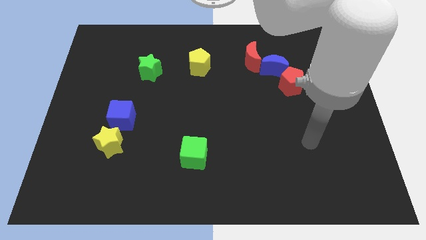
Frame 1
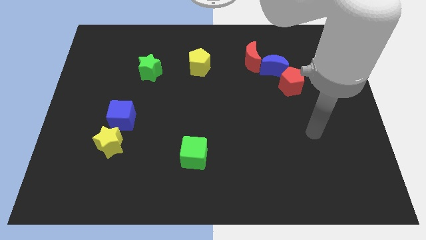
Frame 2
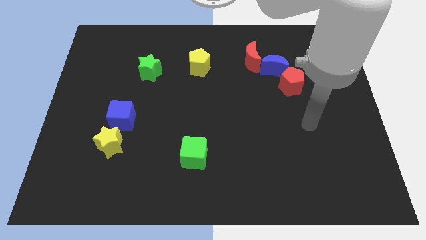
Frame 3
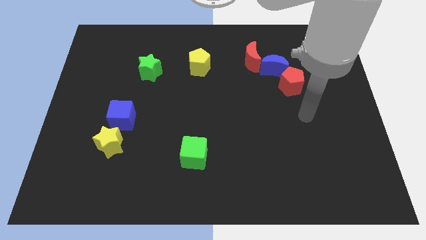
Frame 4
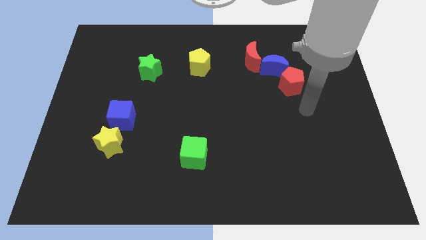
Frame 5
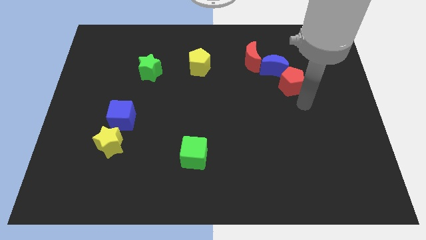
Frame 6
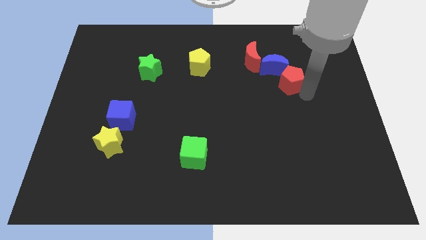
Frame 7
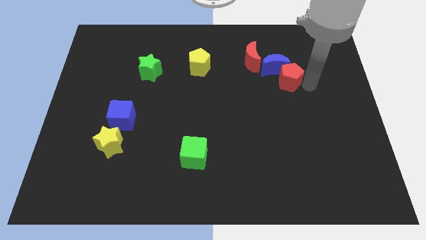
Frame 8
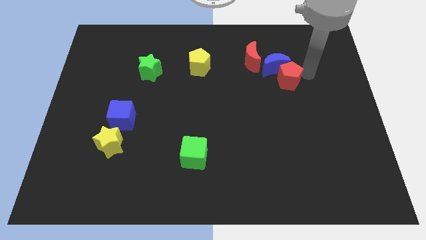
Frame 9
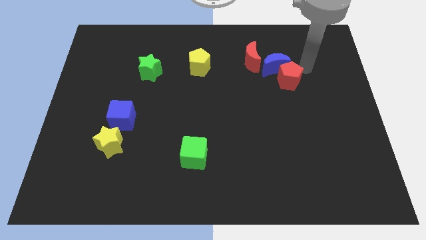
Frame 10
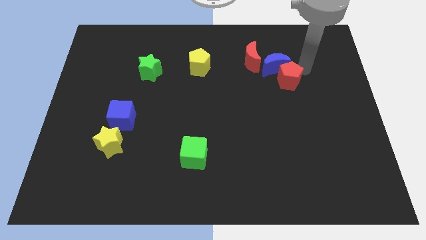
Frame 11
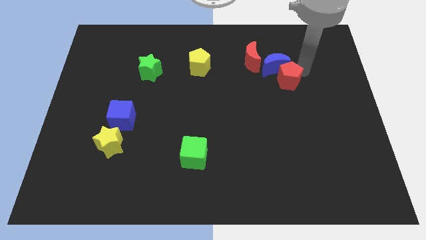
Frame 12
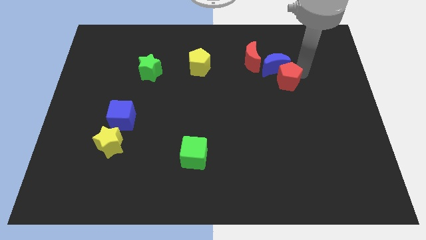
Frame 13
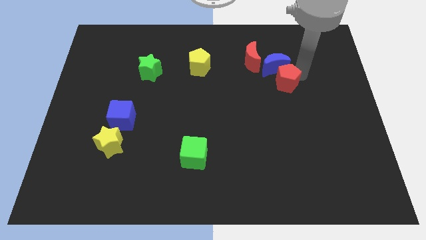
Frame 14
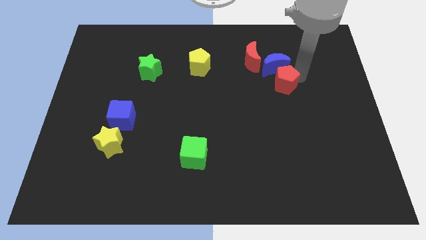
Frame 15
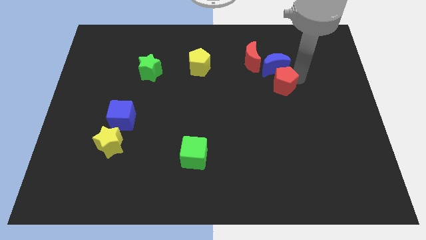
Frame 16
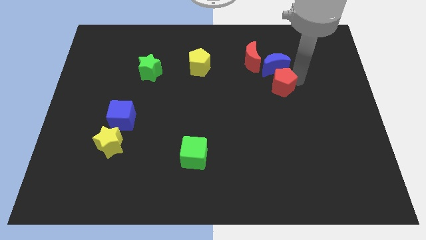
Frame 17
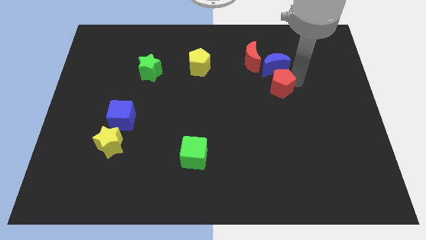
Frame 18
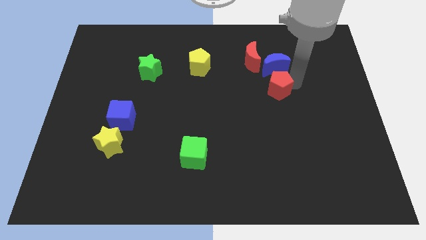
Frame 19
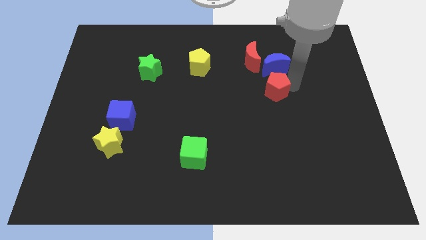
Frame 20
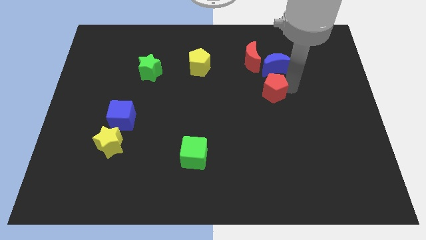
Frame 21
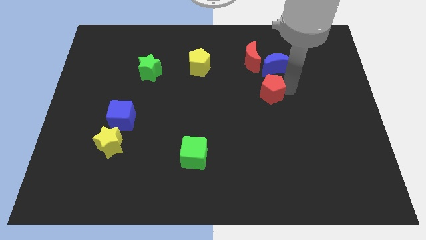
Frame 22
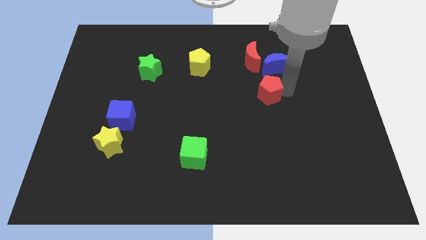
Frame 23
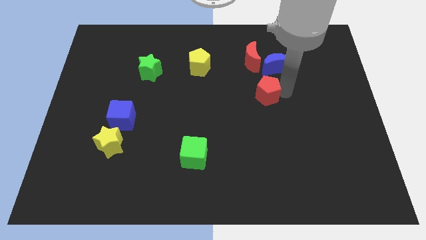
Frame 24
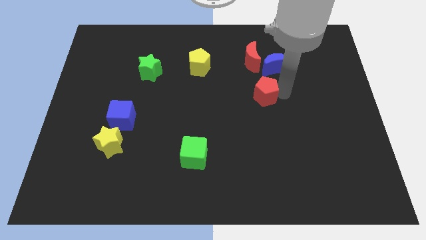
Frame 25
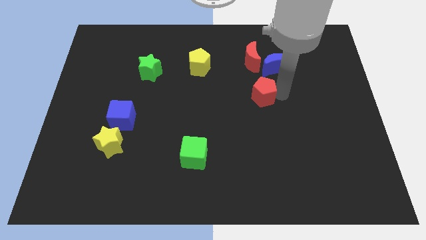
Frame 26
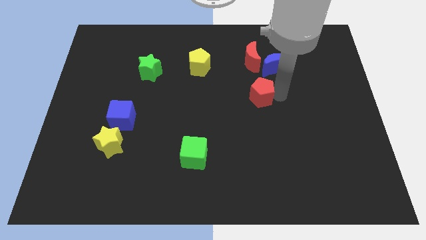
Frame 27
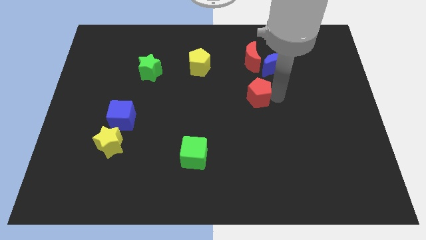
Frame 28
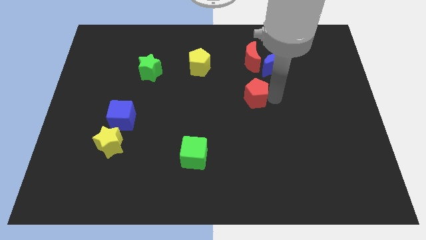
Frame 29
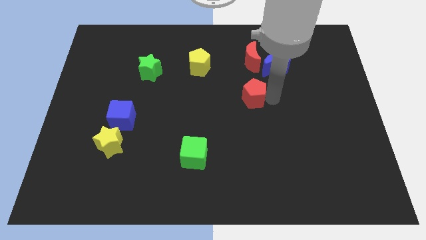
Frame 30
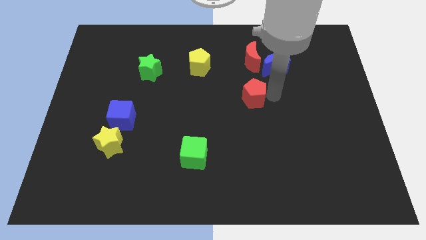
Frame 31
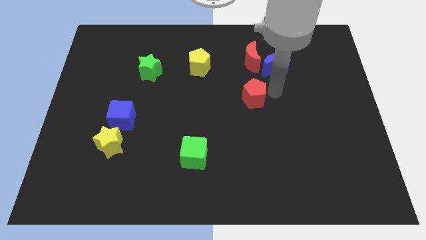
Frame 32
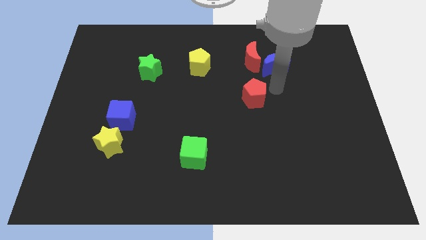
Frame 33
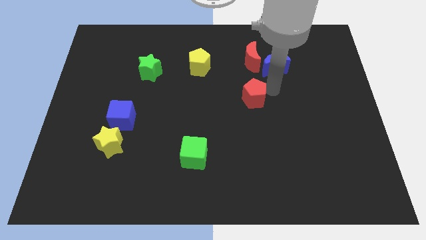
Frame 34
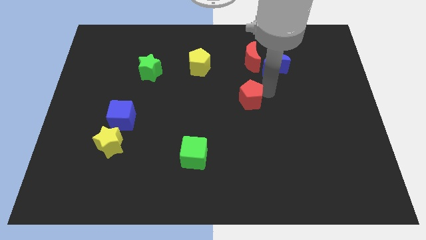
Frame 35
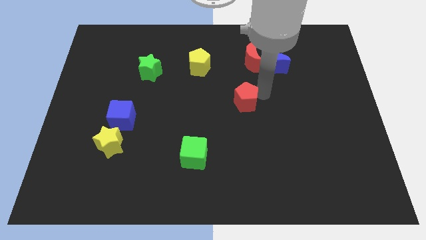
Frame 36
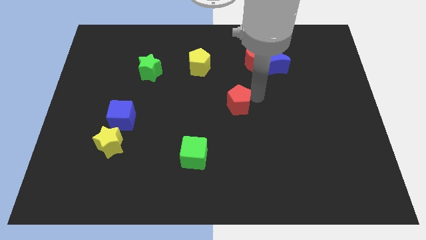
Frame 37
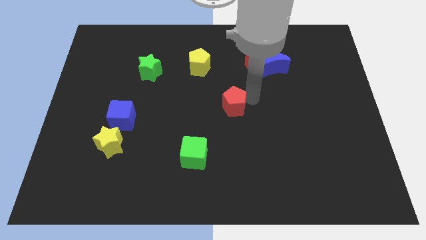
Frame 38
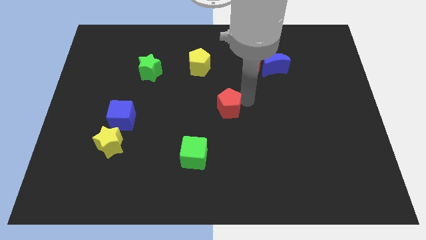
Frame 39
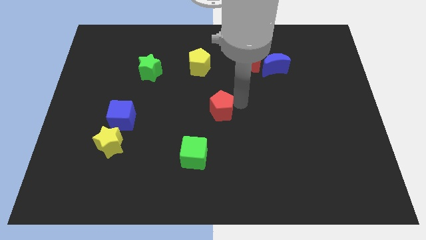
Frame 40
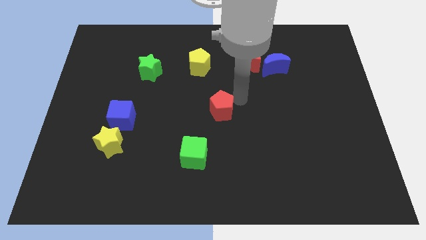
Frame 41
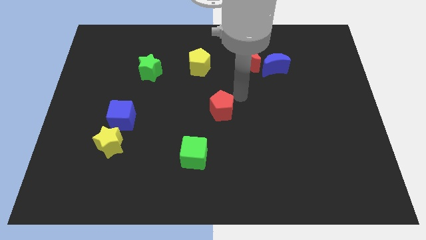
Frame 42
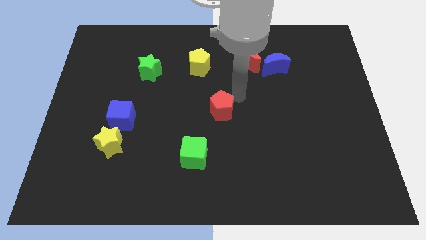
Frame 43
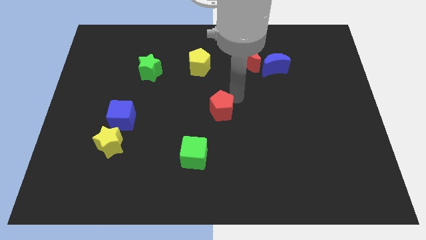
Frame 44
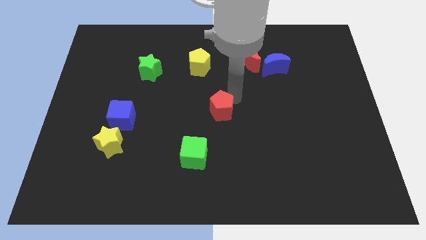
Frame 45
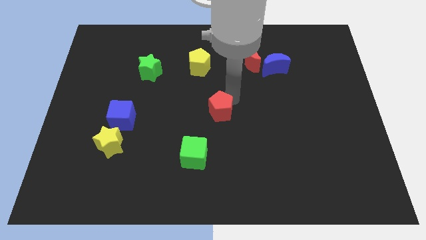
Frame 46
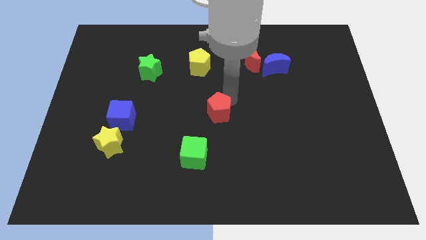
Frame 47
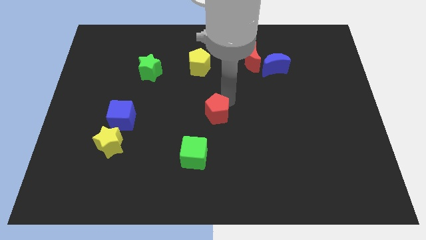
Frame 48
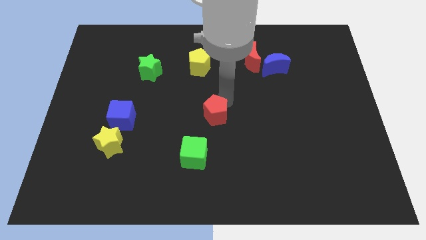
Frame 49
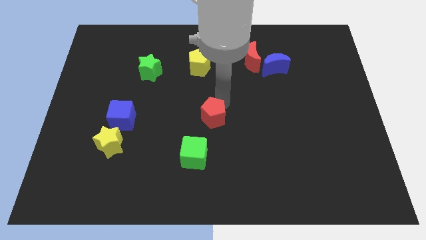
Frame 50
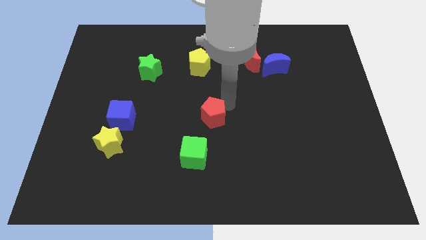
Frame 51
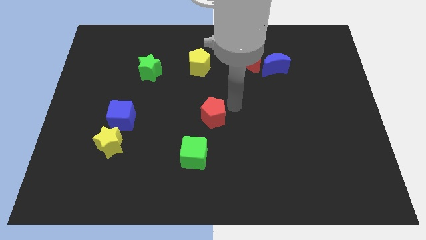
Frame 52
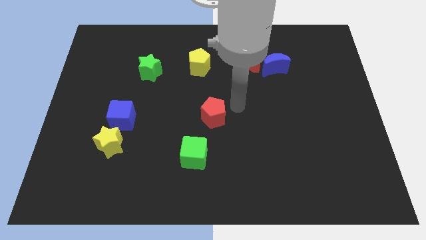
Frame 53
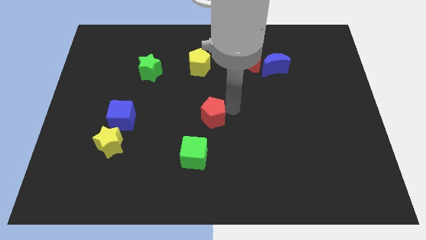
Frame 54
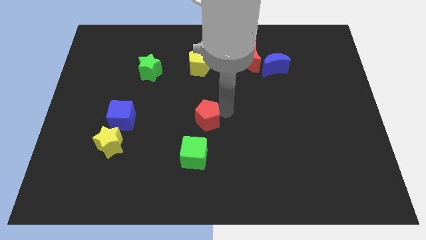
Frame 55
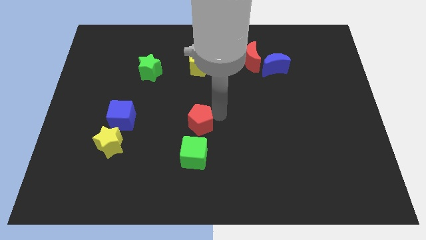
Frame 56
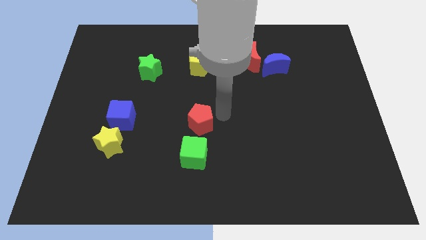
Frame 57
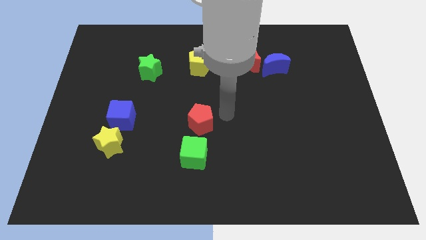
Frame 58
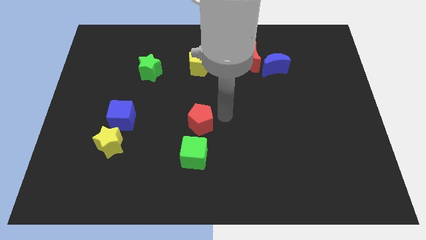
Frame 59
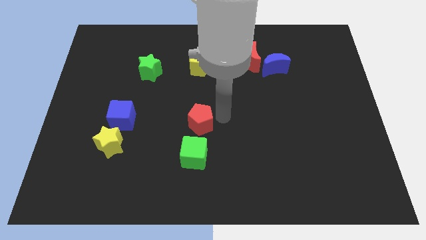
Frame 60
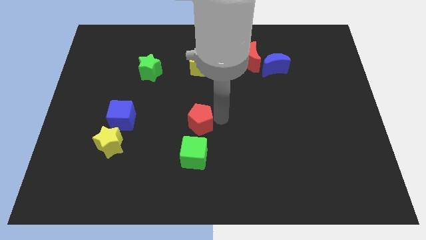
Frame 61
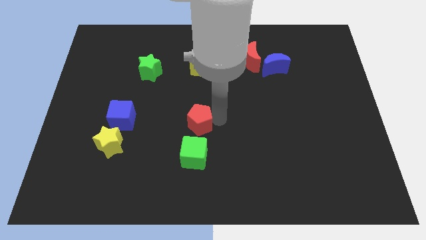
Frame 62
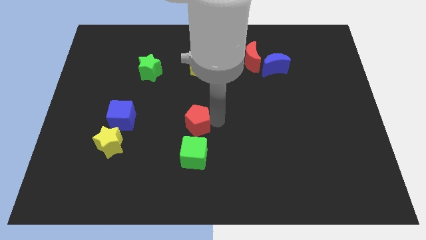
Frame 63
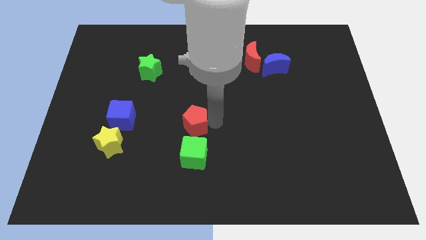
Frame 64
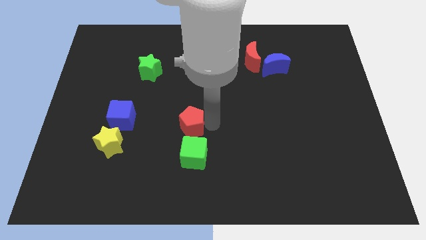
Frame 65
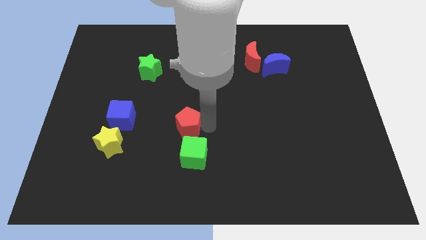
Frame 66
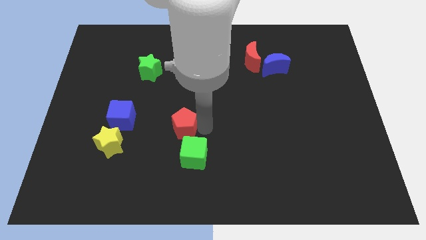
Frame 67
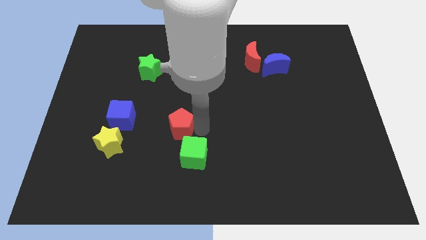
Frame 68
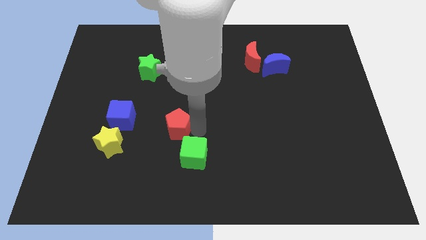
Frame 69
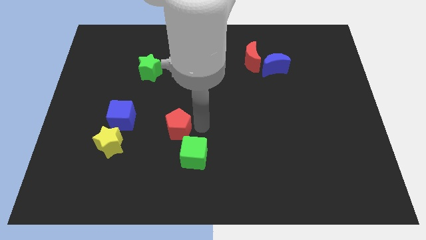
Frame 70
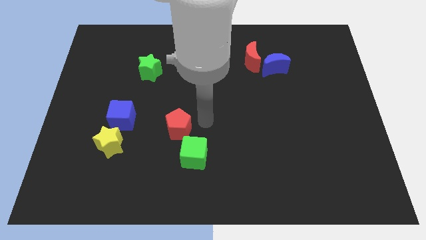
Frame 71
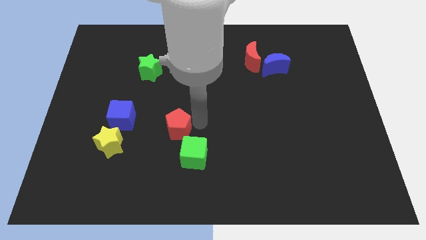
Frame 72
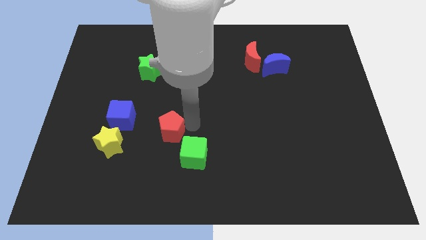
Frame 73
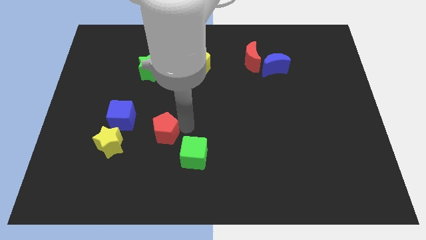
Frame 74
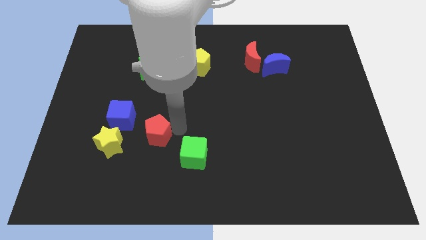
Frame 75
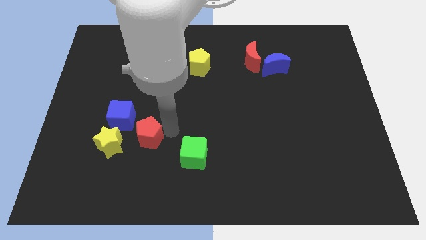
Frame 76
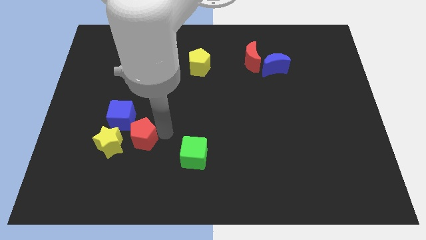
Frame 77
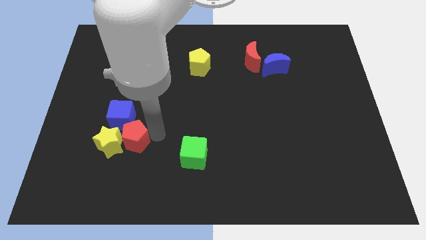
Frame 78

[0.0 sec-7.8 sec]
put the red pentagon close to the yellow star
